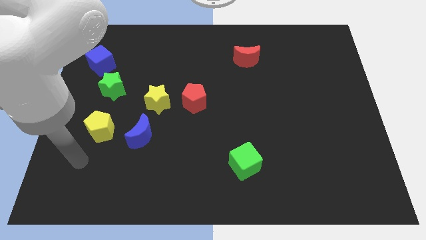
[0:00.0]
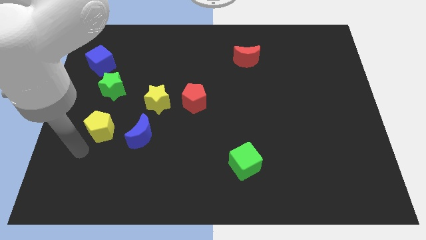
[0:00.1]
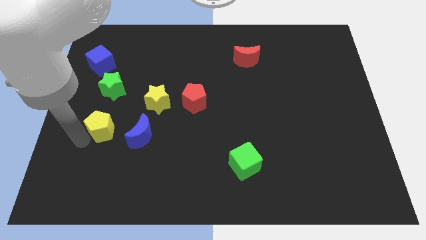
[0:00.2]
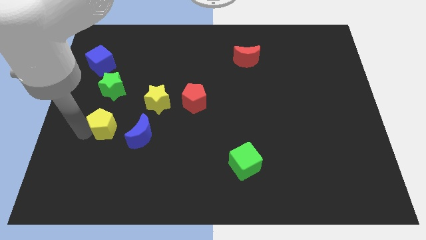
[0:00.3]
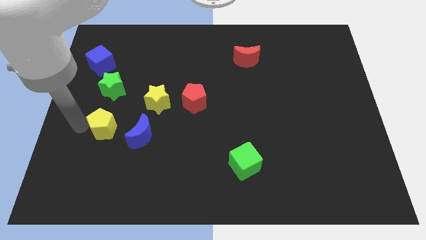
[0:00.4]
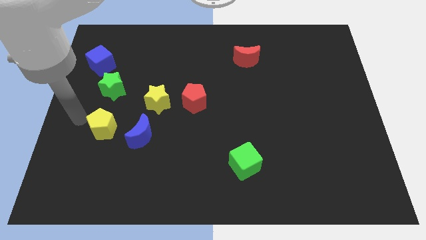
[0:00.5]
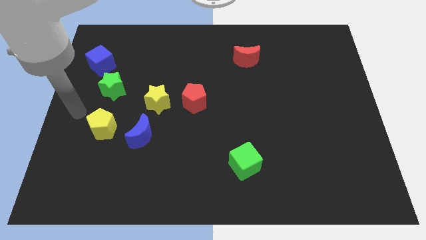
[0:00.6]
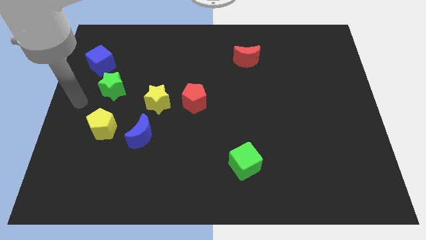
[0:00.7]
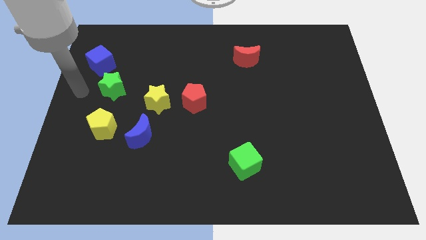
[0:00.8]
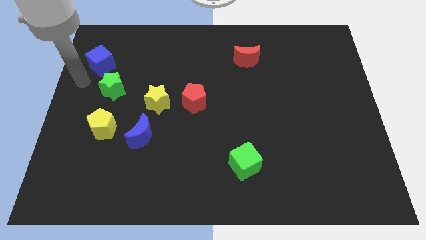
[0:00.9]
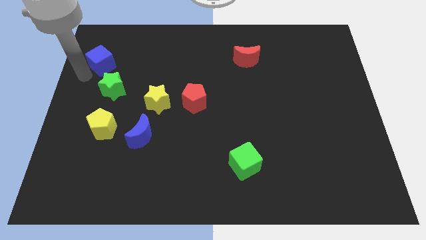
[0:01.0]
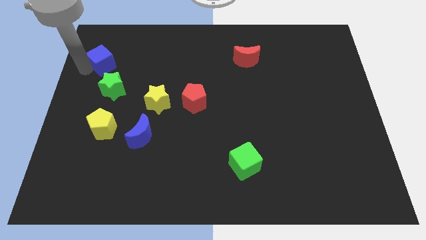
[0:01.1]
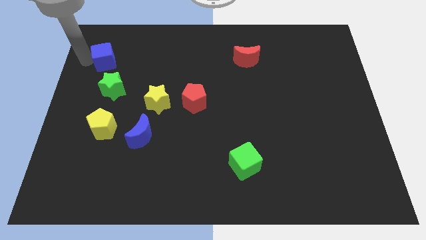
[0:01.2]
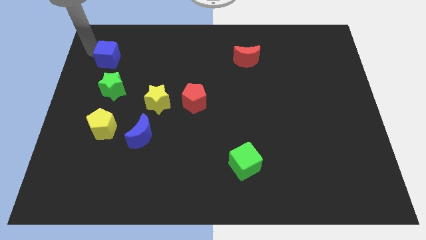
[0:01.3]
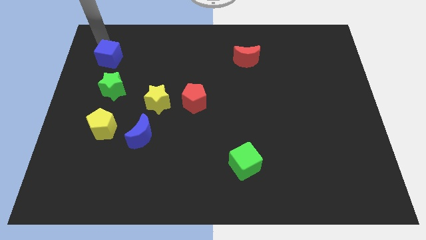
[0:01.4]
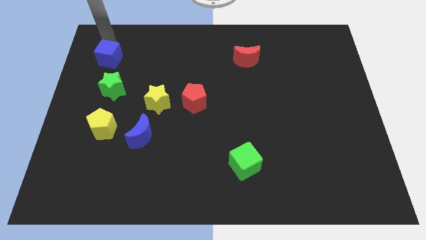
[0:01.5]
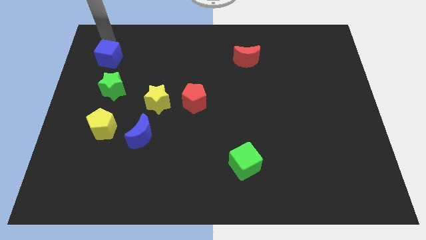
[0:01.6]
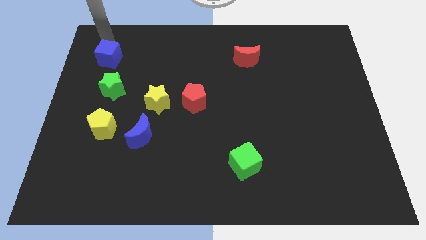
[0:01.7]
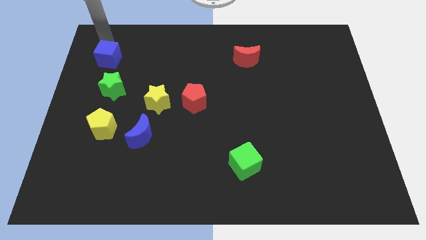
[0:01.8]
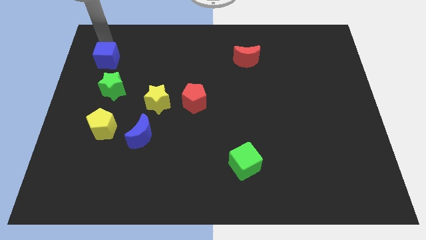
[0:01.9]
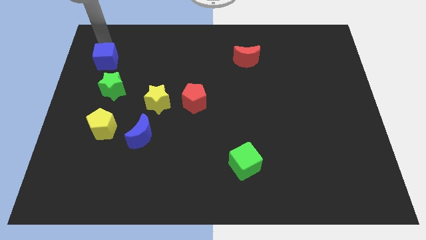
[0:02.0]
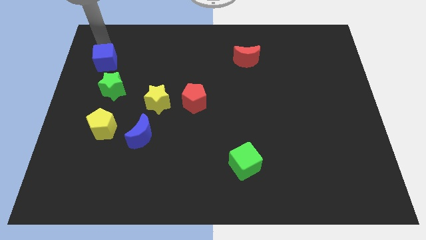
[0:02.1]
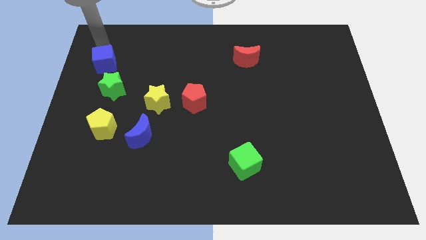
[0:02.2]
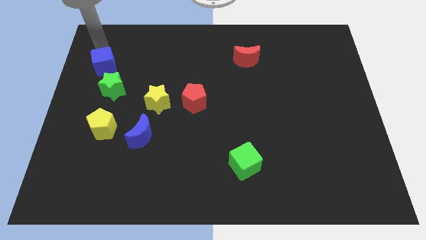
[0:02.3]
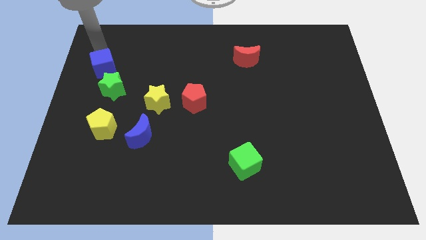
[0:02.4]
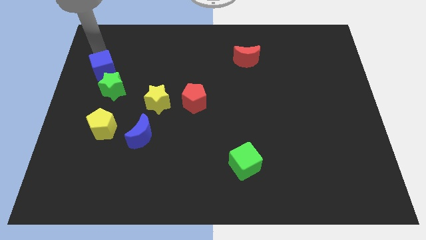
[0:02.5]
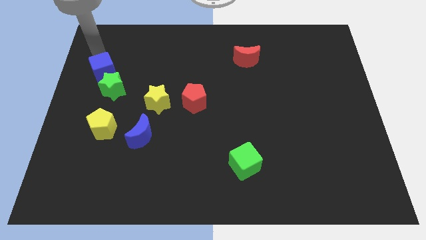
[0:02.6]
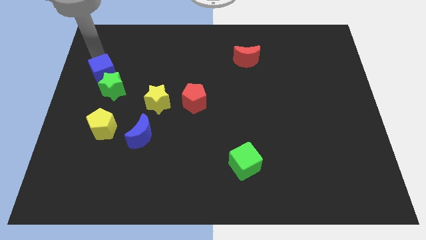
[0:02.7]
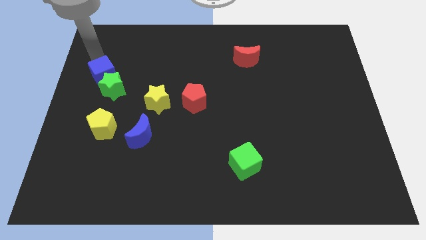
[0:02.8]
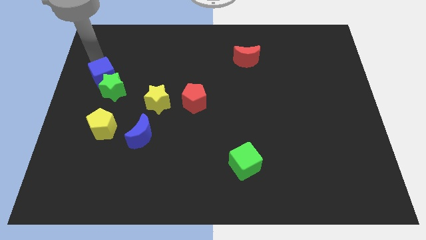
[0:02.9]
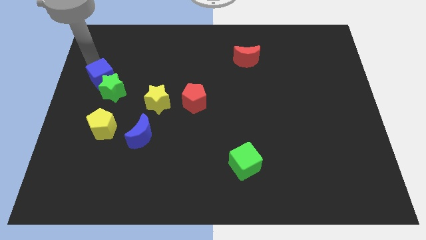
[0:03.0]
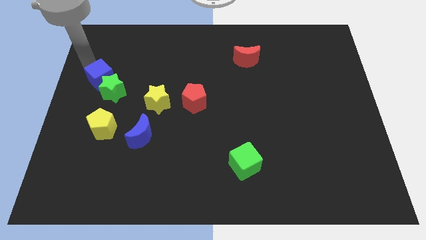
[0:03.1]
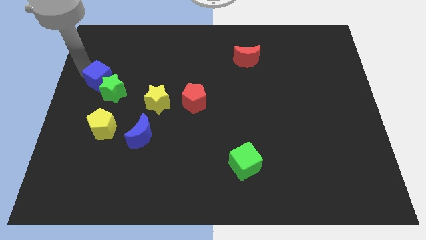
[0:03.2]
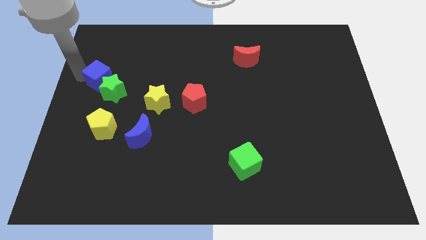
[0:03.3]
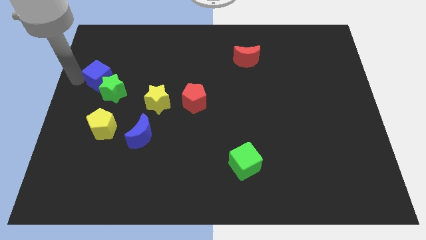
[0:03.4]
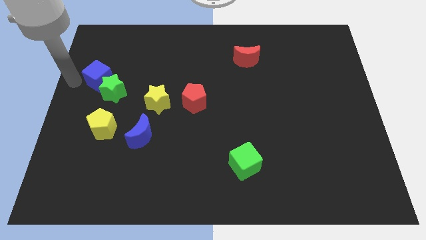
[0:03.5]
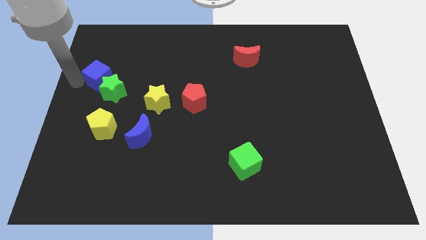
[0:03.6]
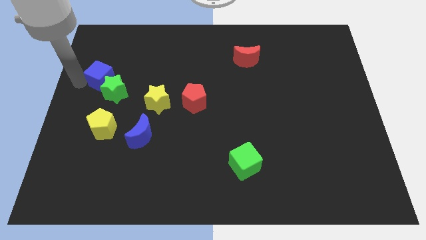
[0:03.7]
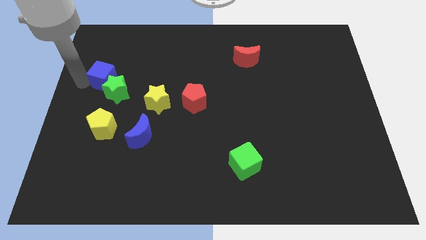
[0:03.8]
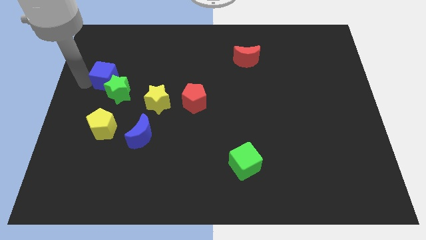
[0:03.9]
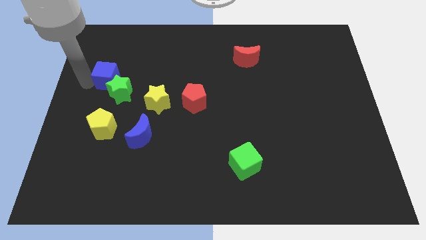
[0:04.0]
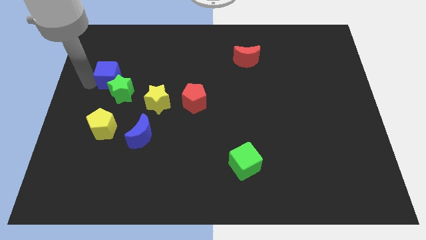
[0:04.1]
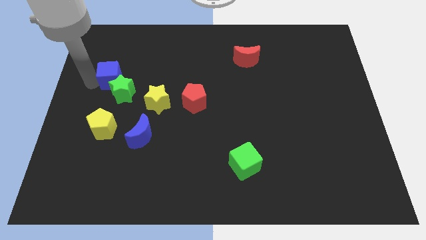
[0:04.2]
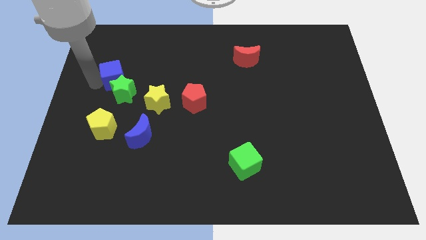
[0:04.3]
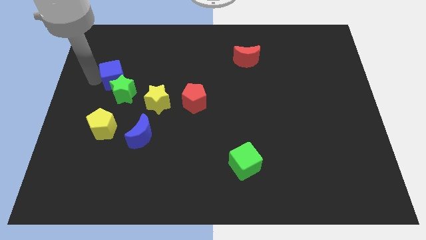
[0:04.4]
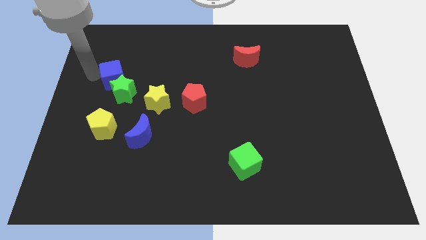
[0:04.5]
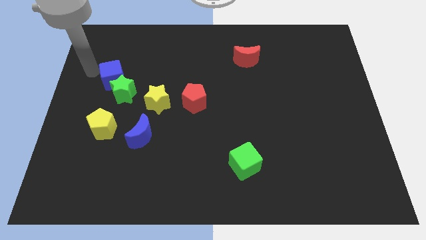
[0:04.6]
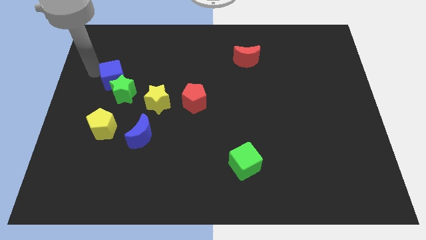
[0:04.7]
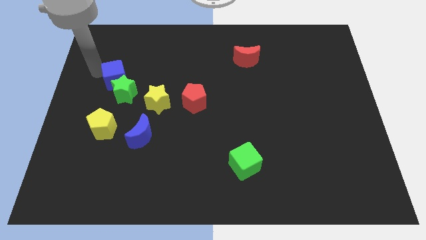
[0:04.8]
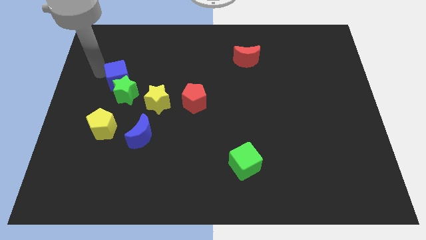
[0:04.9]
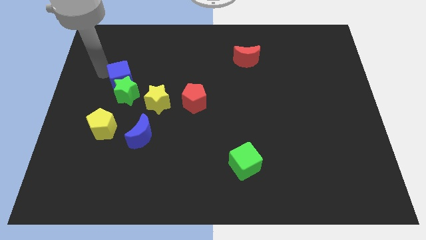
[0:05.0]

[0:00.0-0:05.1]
push the blue cube diagonally up and to the left of the yellow star

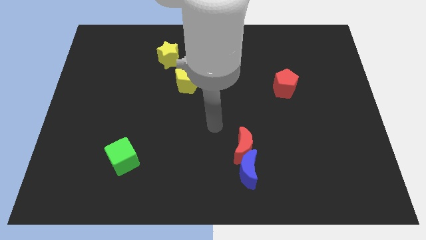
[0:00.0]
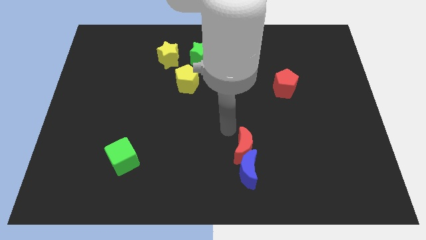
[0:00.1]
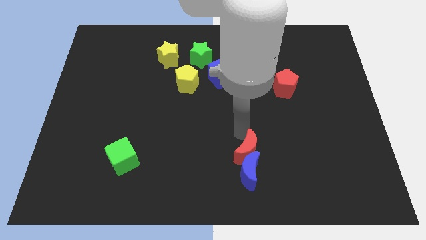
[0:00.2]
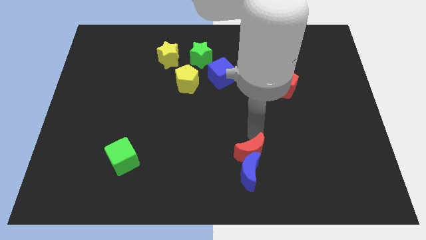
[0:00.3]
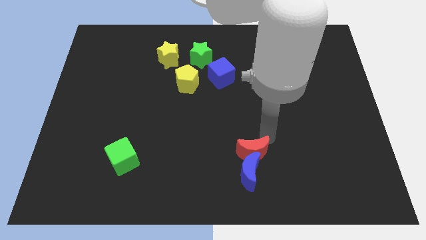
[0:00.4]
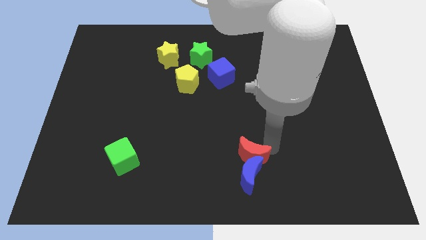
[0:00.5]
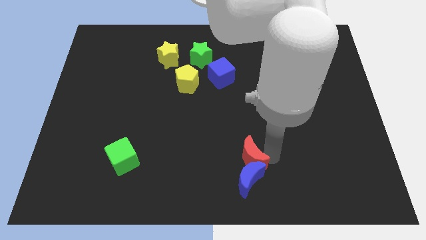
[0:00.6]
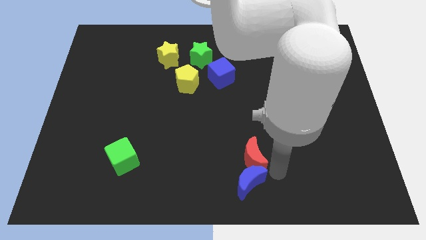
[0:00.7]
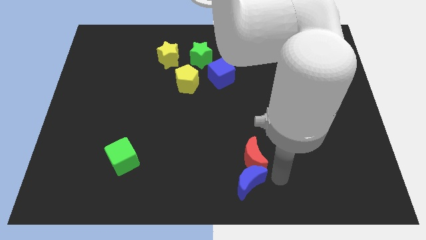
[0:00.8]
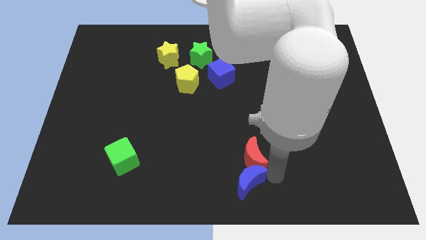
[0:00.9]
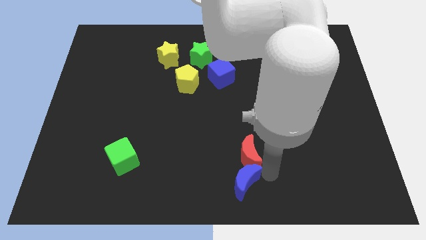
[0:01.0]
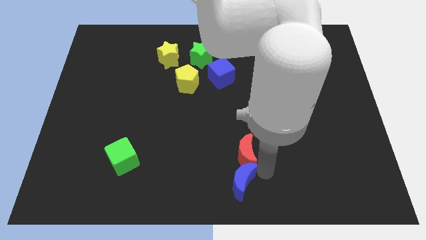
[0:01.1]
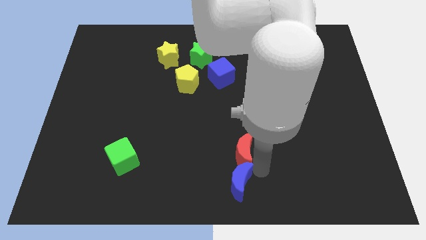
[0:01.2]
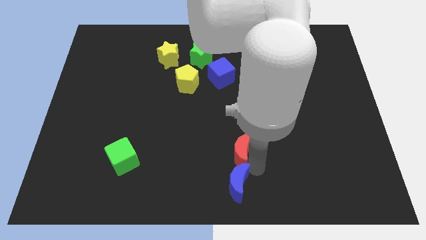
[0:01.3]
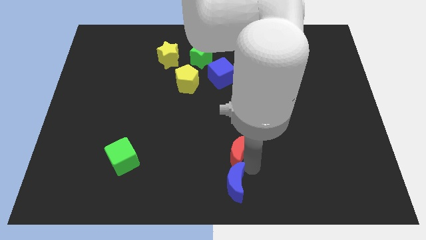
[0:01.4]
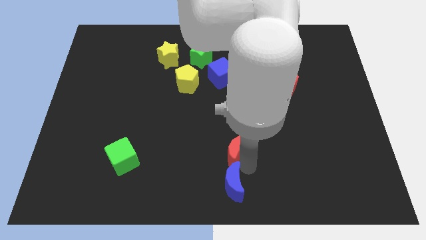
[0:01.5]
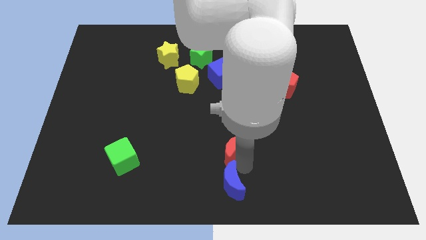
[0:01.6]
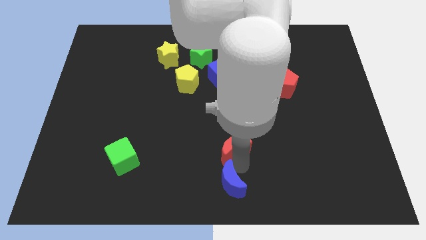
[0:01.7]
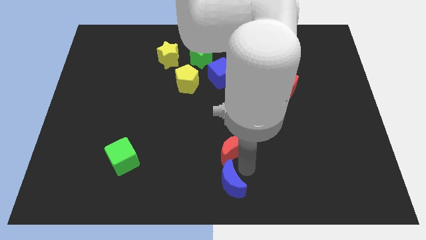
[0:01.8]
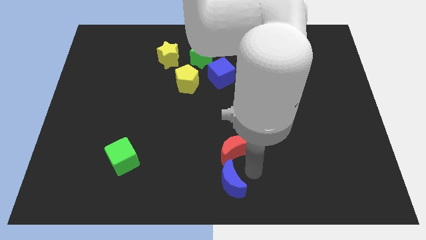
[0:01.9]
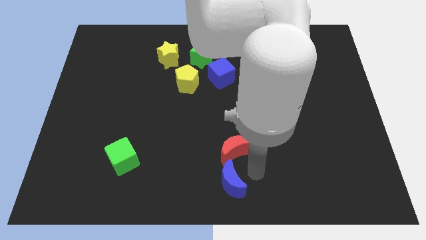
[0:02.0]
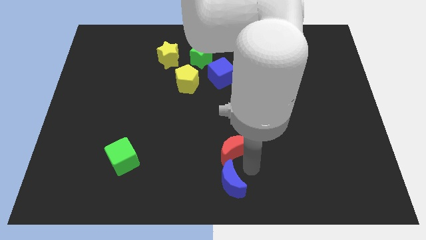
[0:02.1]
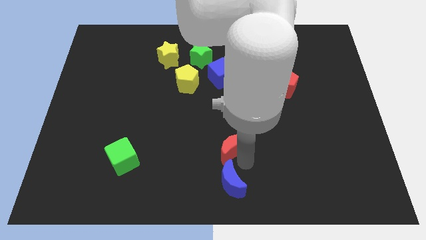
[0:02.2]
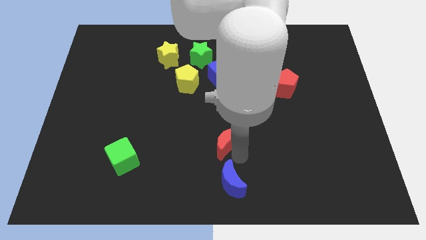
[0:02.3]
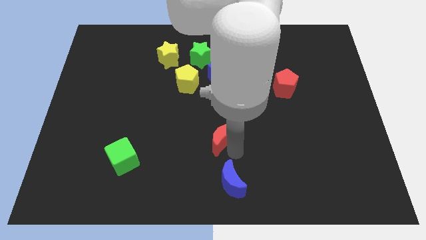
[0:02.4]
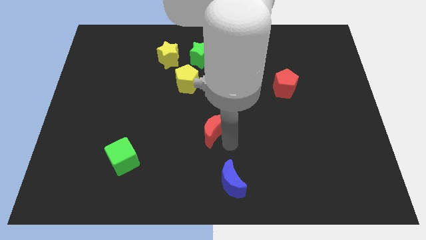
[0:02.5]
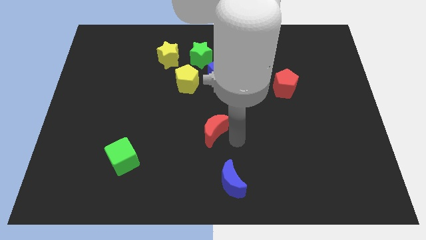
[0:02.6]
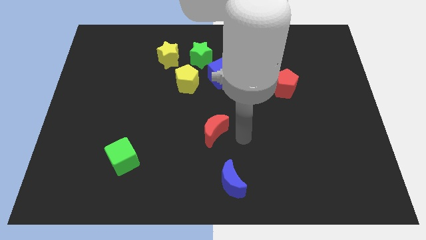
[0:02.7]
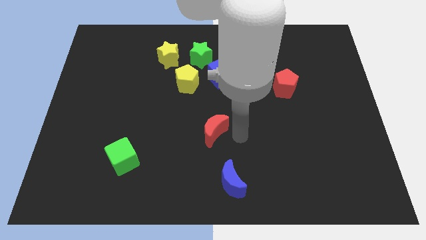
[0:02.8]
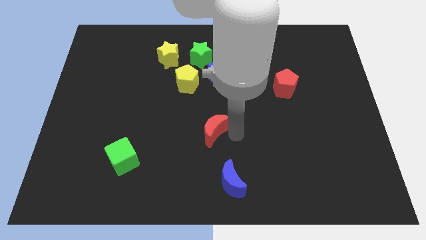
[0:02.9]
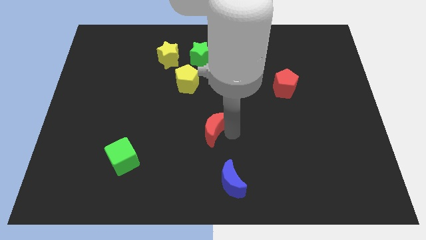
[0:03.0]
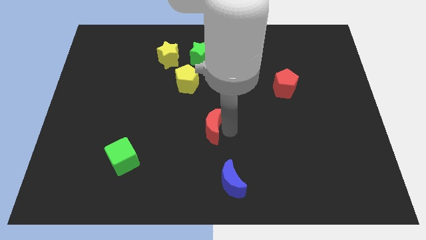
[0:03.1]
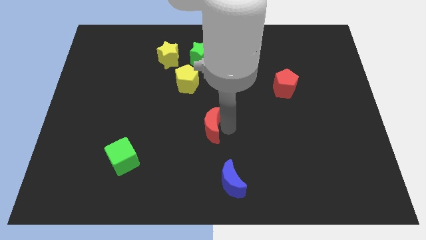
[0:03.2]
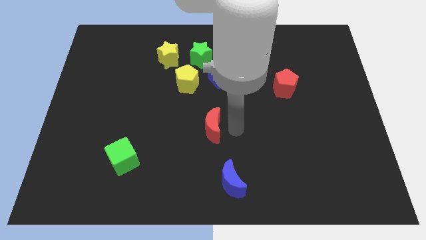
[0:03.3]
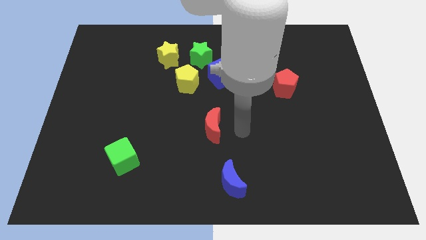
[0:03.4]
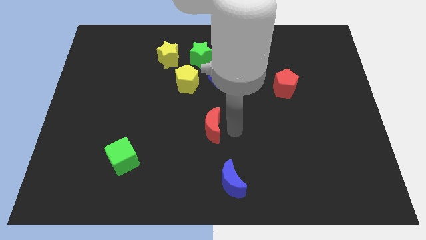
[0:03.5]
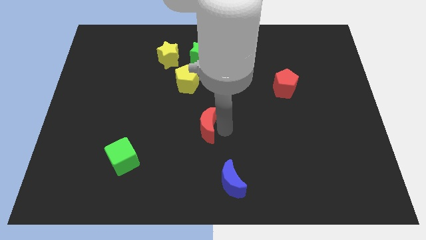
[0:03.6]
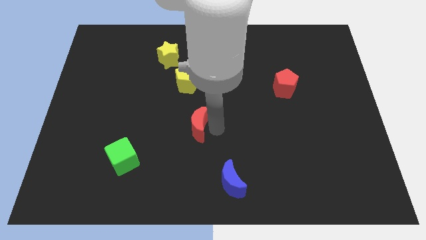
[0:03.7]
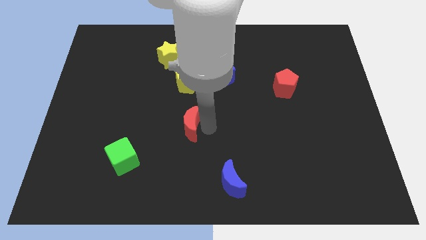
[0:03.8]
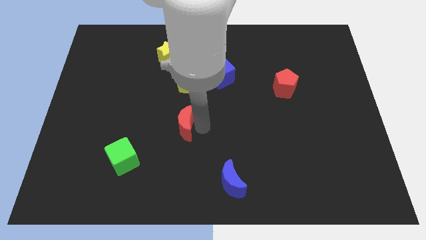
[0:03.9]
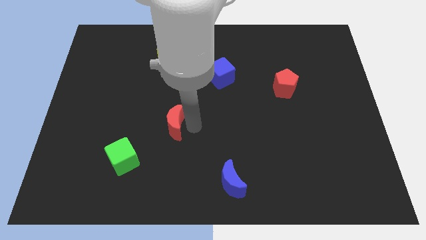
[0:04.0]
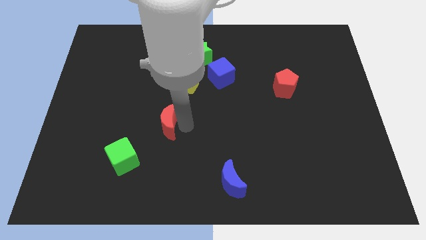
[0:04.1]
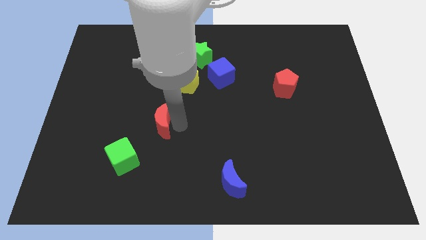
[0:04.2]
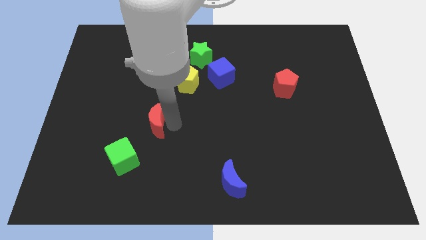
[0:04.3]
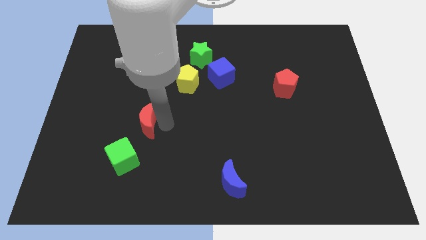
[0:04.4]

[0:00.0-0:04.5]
put the red moon above the green cube
